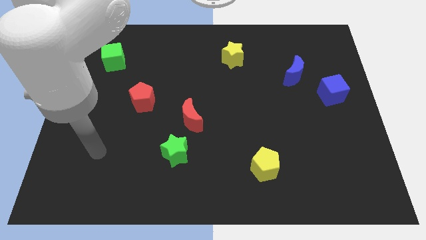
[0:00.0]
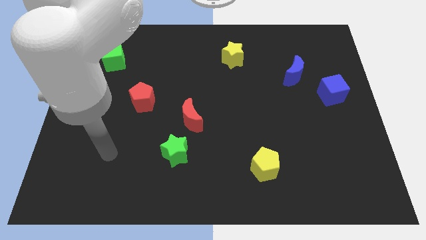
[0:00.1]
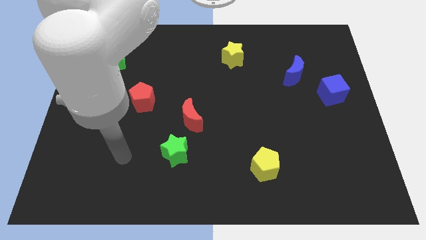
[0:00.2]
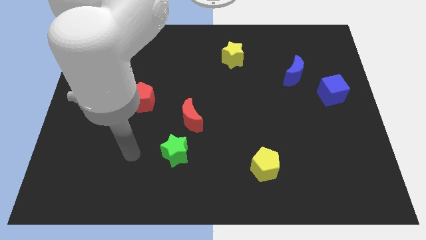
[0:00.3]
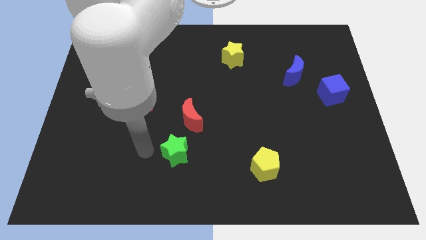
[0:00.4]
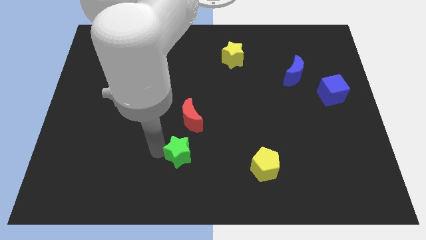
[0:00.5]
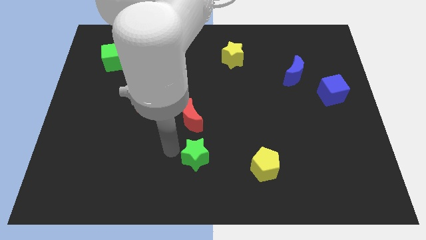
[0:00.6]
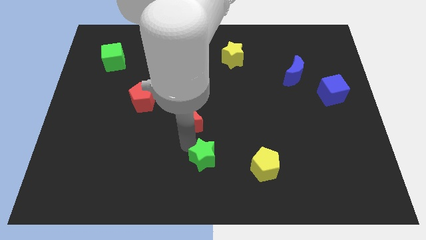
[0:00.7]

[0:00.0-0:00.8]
separate the red moon from the green star

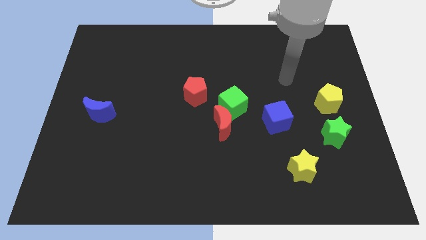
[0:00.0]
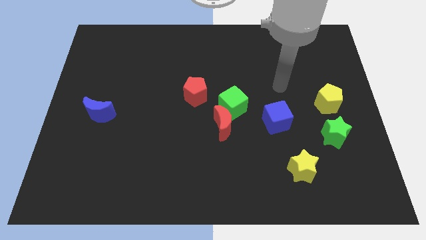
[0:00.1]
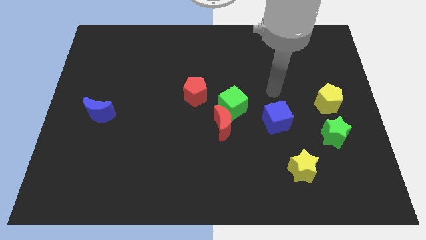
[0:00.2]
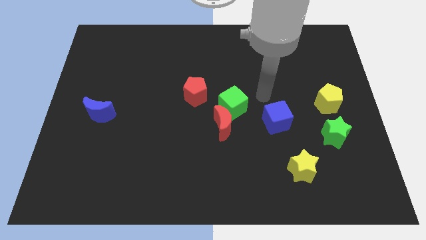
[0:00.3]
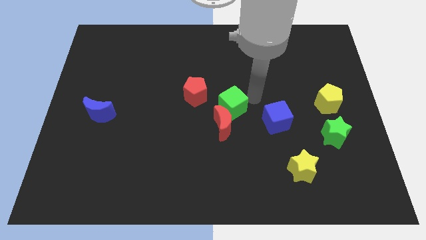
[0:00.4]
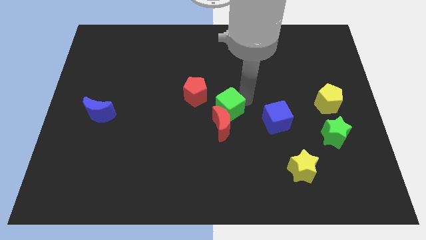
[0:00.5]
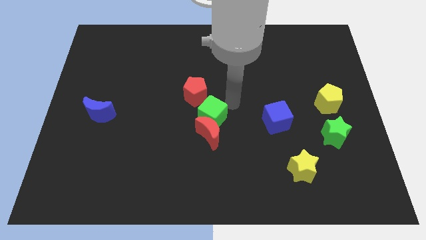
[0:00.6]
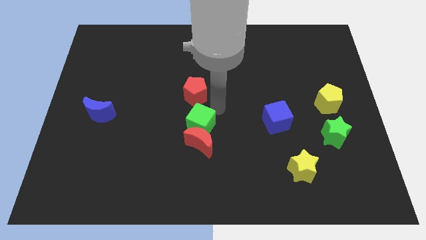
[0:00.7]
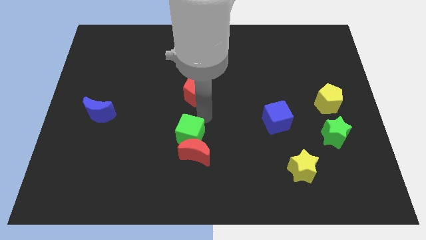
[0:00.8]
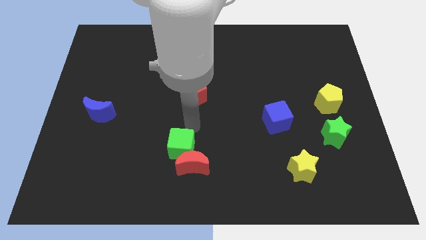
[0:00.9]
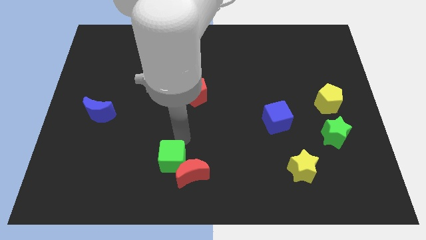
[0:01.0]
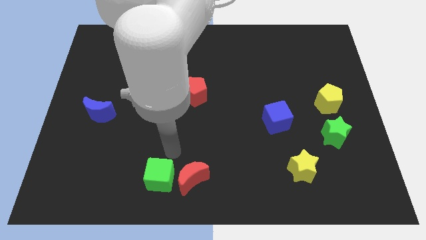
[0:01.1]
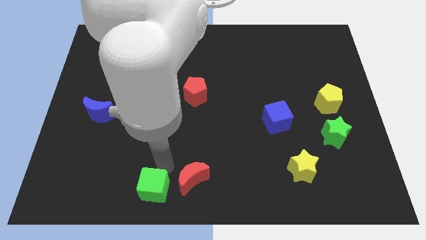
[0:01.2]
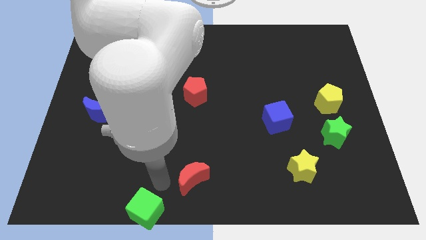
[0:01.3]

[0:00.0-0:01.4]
pull the red moon apart from the green cube

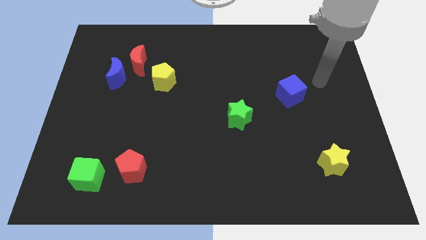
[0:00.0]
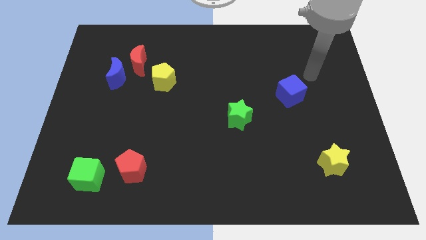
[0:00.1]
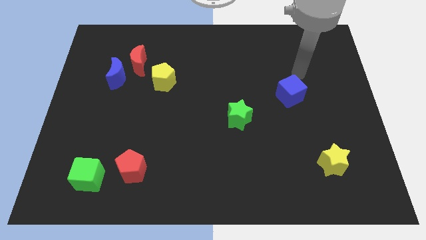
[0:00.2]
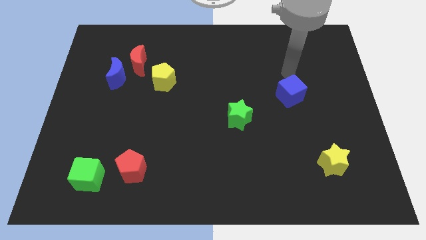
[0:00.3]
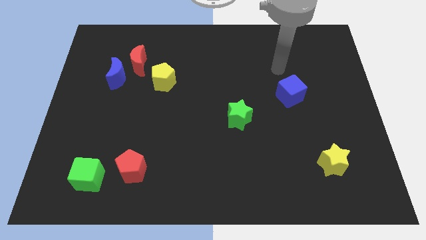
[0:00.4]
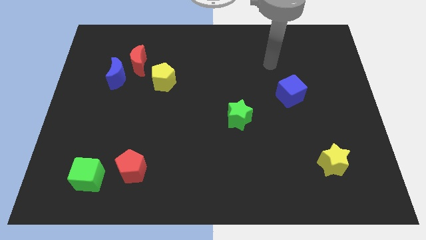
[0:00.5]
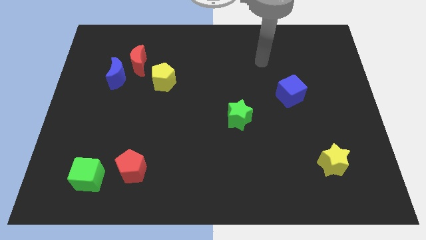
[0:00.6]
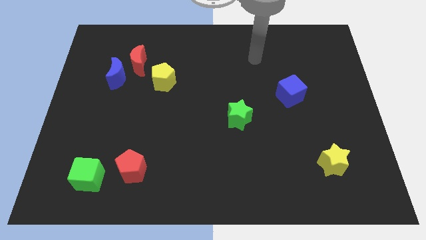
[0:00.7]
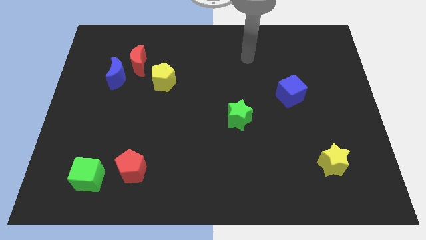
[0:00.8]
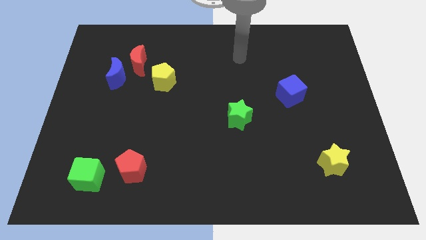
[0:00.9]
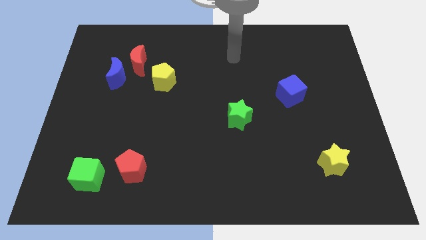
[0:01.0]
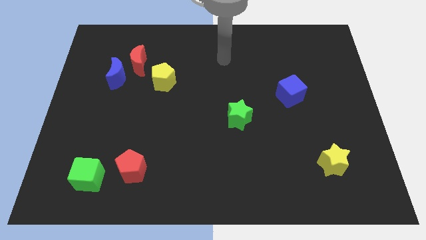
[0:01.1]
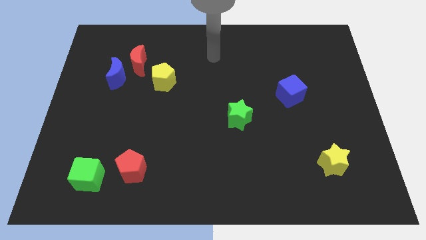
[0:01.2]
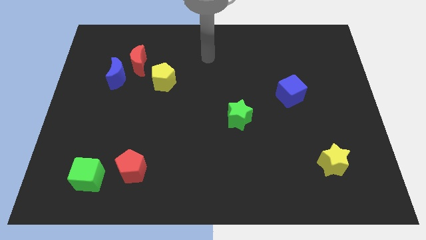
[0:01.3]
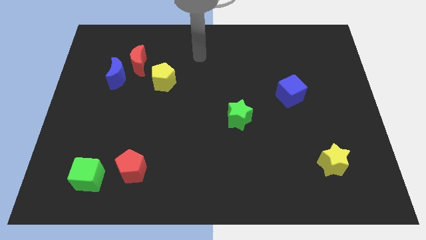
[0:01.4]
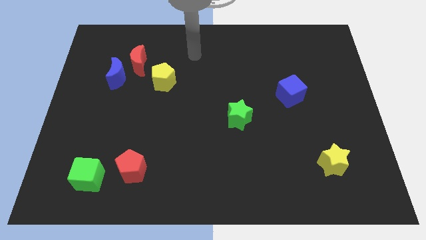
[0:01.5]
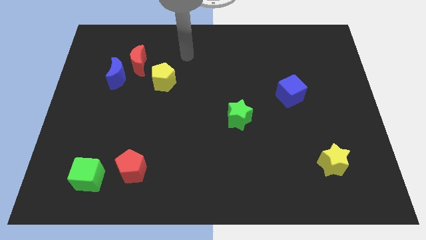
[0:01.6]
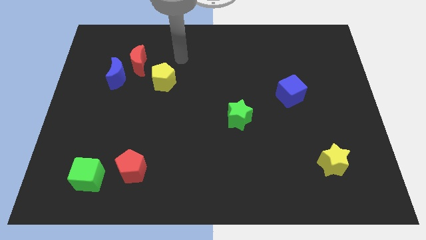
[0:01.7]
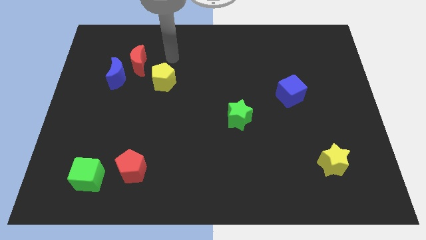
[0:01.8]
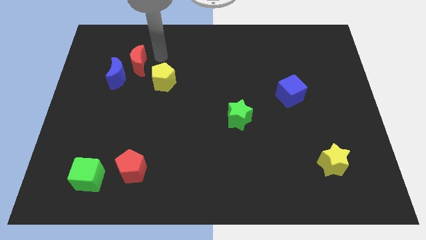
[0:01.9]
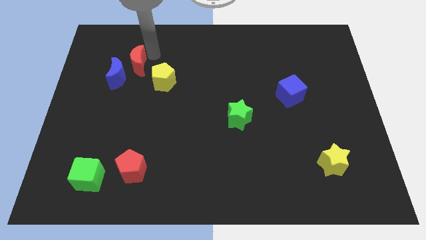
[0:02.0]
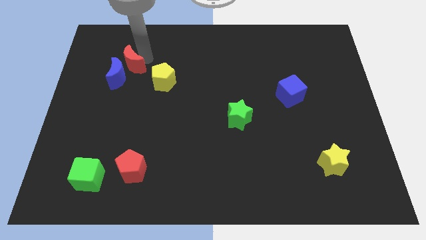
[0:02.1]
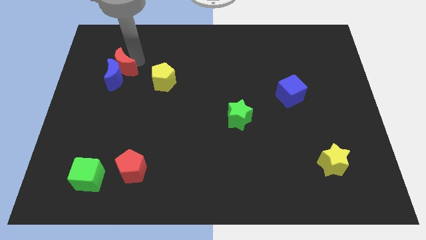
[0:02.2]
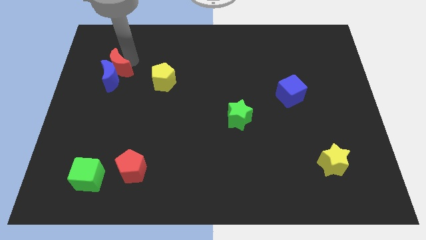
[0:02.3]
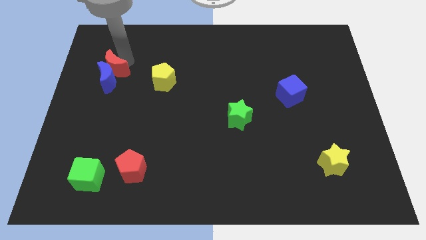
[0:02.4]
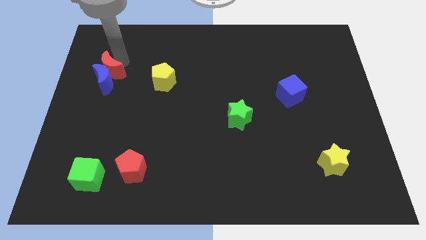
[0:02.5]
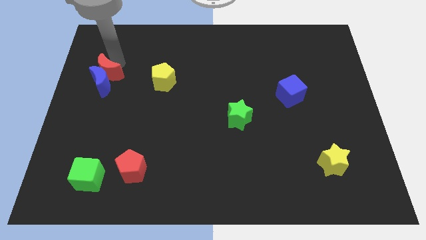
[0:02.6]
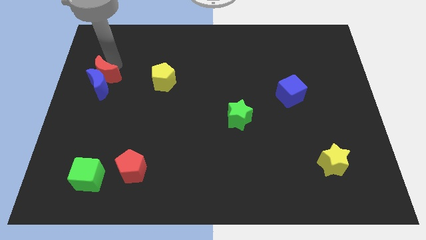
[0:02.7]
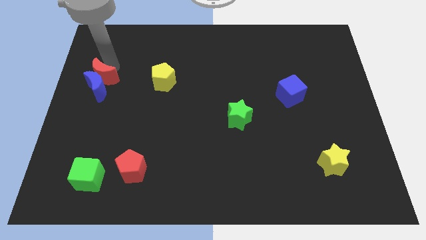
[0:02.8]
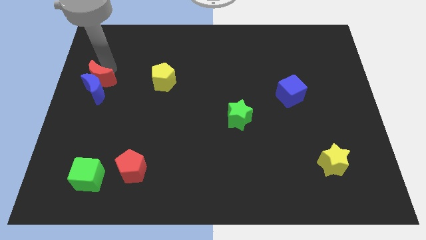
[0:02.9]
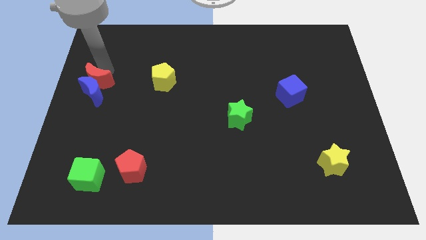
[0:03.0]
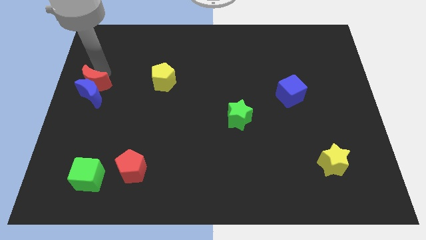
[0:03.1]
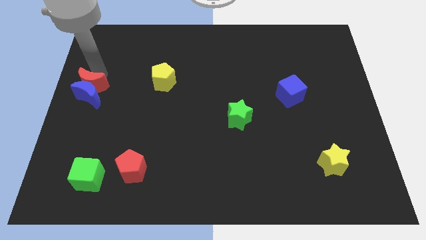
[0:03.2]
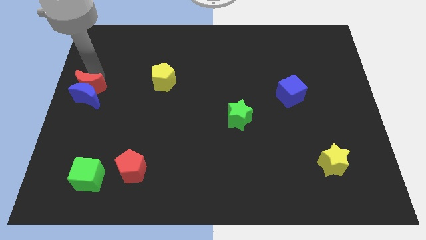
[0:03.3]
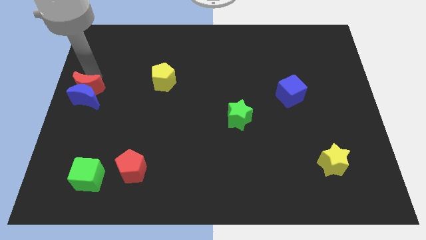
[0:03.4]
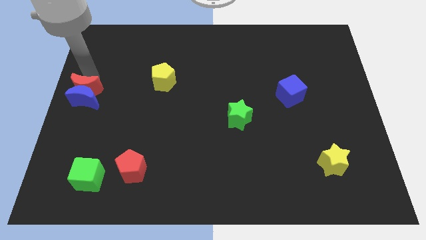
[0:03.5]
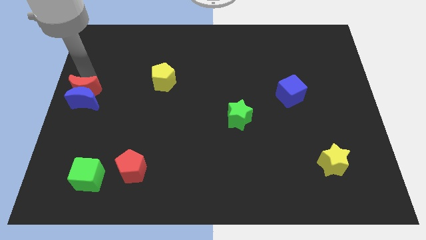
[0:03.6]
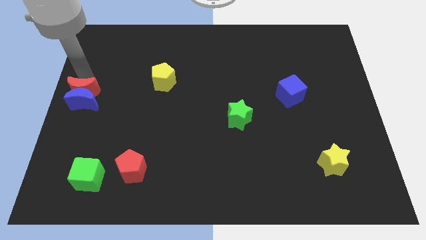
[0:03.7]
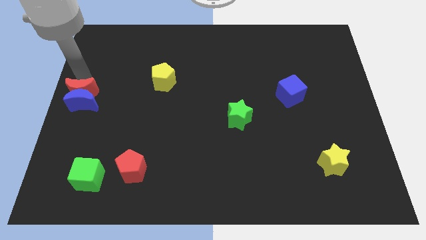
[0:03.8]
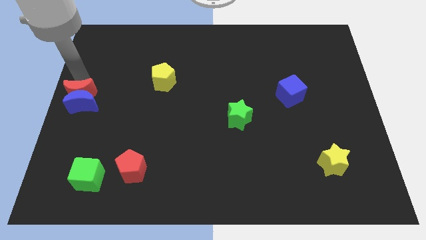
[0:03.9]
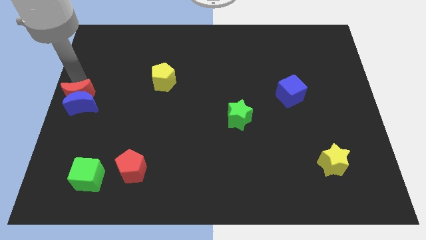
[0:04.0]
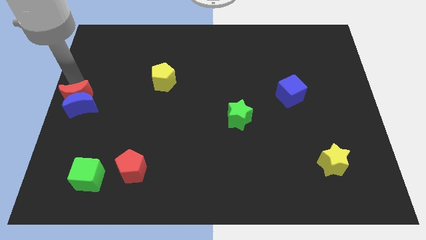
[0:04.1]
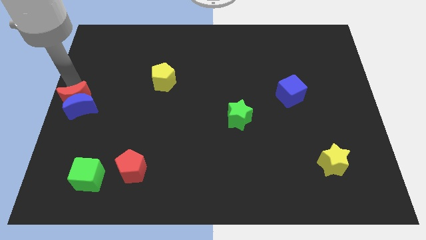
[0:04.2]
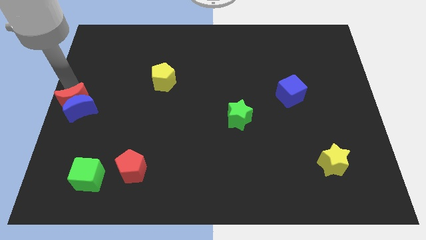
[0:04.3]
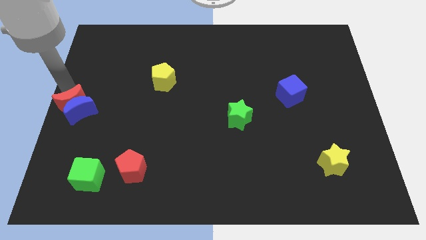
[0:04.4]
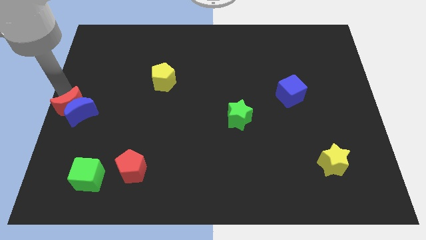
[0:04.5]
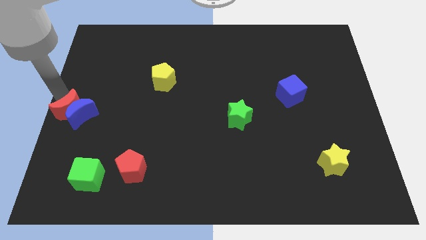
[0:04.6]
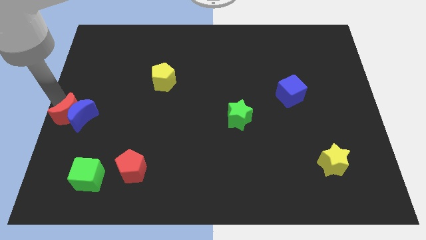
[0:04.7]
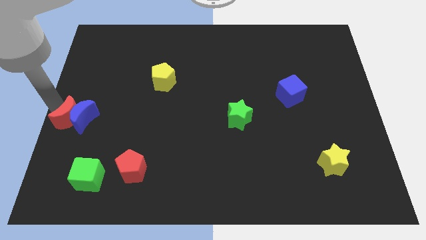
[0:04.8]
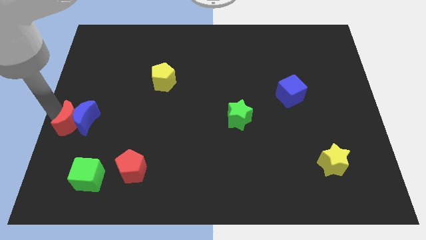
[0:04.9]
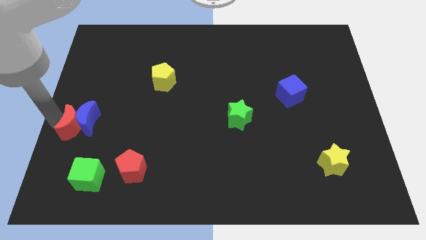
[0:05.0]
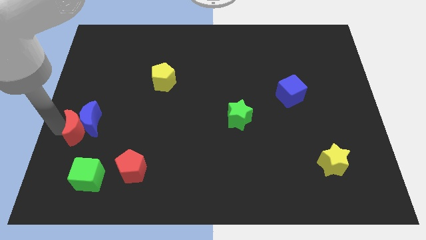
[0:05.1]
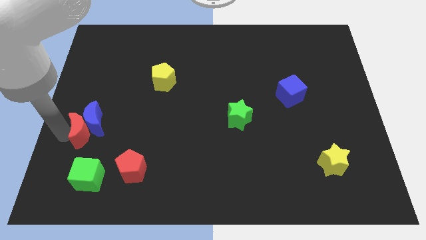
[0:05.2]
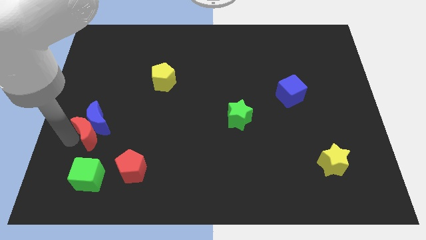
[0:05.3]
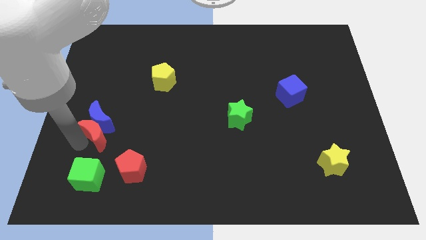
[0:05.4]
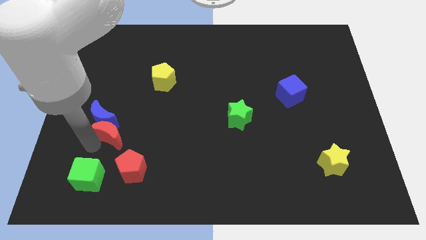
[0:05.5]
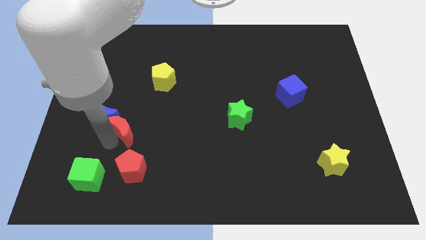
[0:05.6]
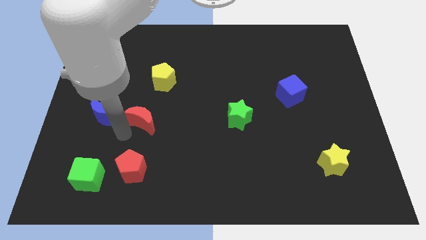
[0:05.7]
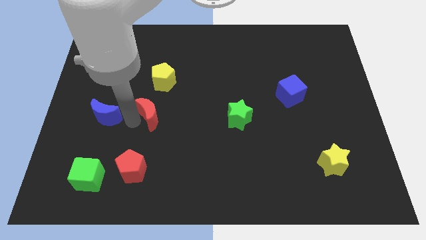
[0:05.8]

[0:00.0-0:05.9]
separate the blue moon from the red moon

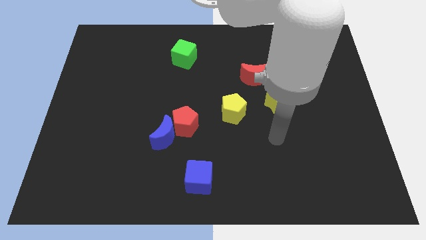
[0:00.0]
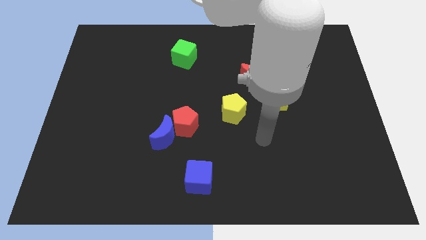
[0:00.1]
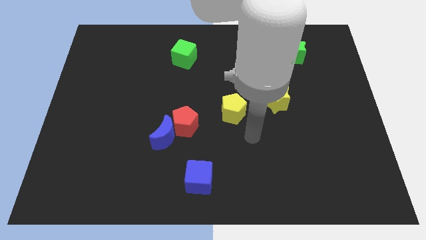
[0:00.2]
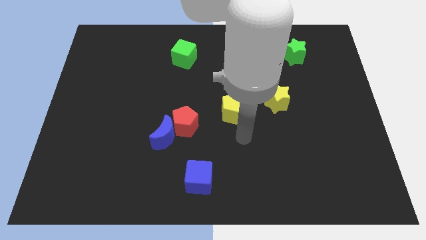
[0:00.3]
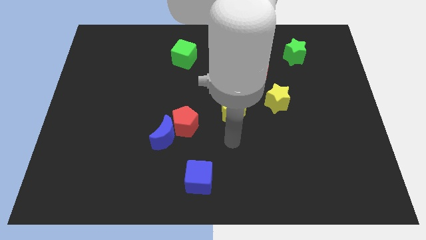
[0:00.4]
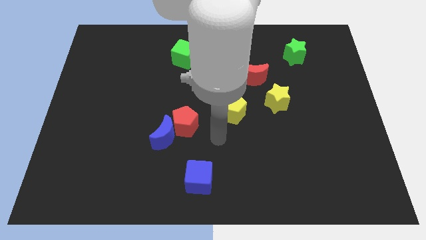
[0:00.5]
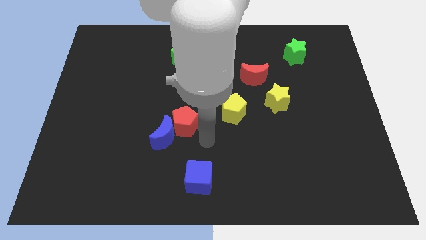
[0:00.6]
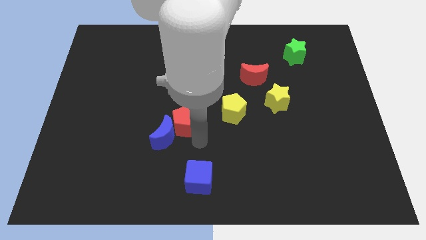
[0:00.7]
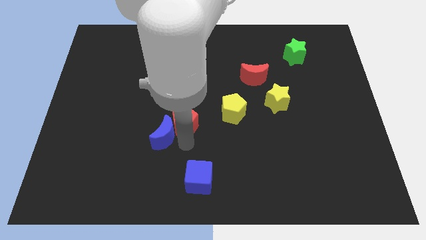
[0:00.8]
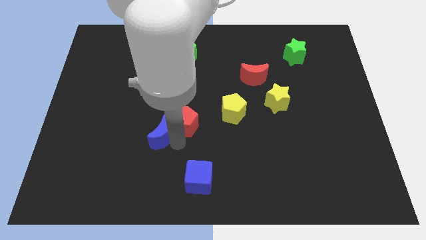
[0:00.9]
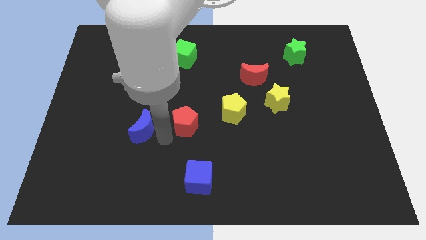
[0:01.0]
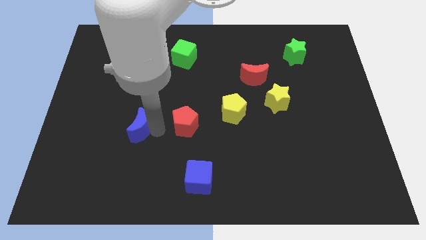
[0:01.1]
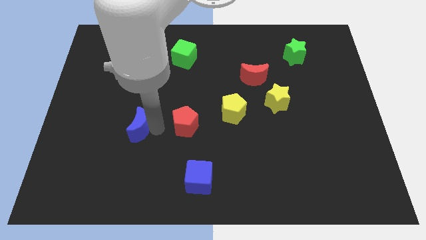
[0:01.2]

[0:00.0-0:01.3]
separate the red pentagon from the blue moon
